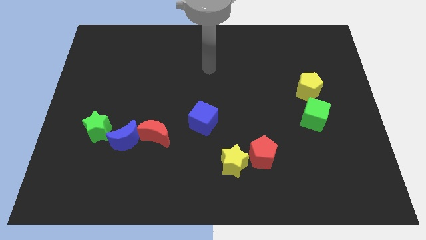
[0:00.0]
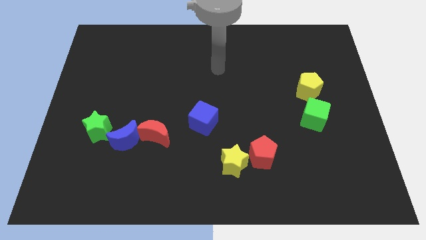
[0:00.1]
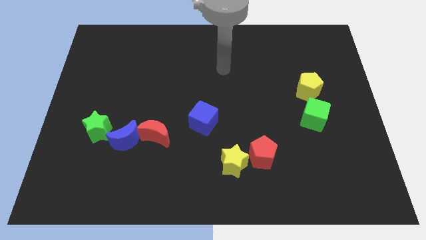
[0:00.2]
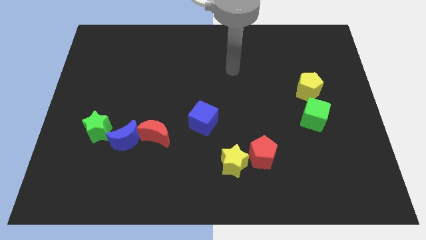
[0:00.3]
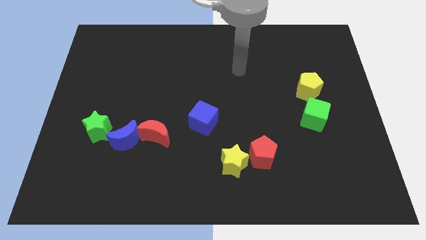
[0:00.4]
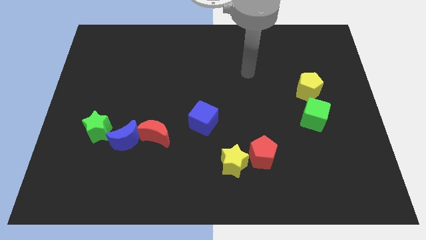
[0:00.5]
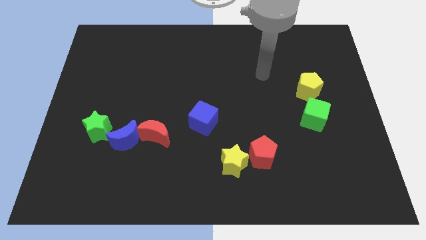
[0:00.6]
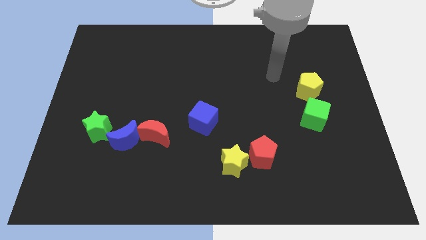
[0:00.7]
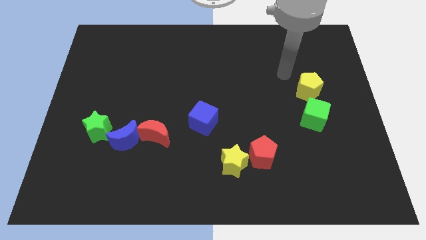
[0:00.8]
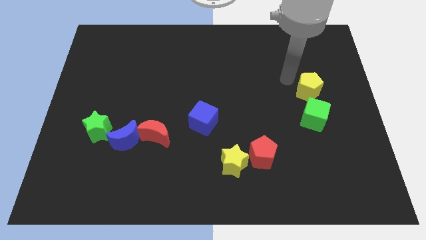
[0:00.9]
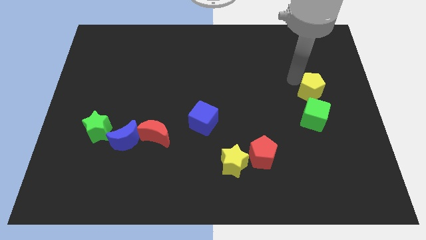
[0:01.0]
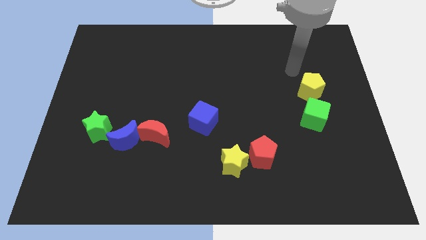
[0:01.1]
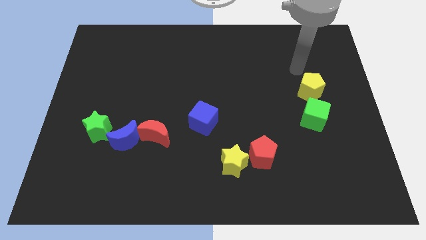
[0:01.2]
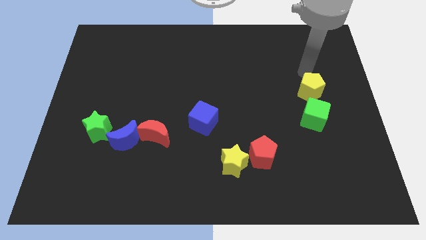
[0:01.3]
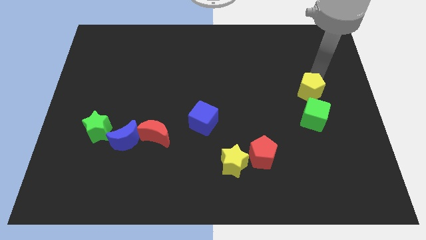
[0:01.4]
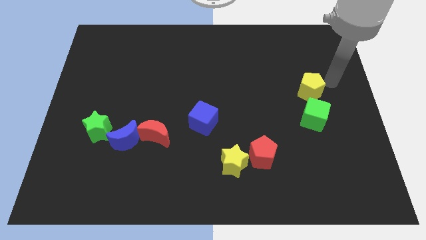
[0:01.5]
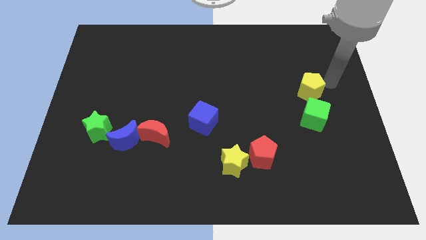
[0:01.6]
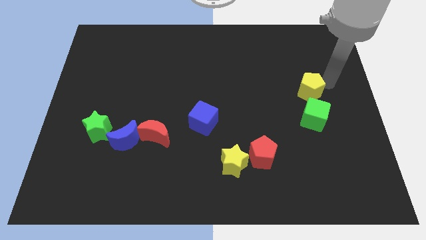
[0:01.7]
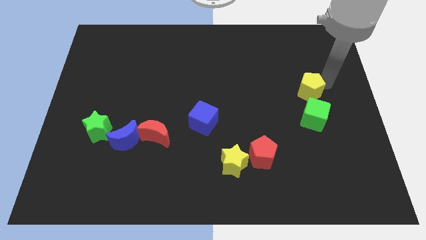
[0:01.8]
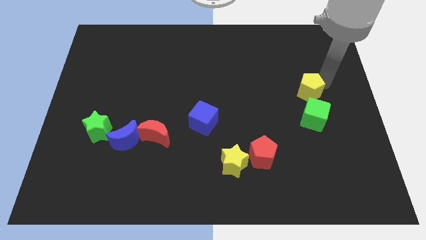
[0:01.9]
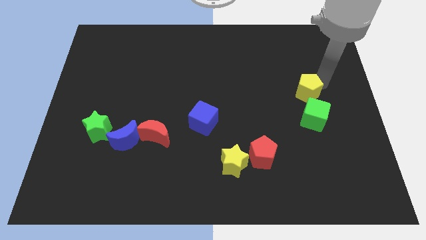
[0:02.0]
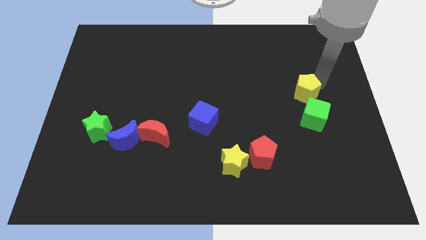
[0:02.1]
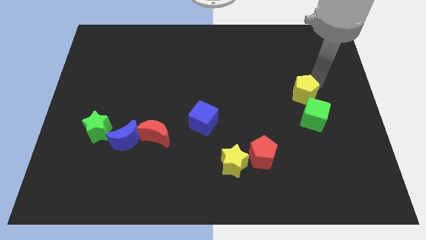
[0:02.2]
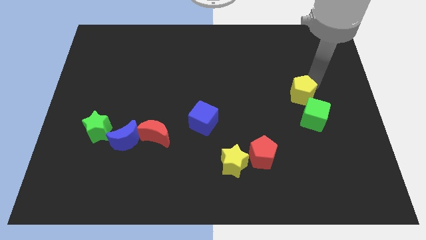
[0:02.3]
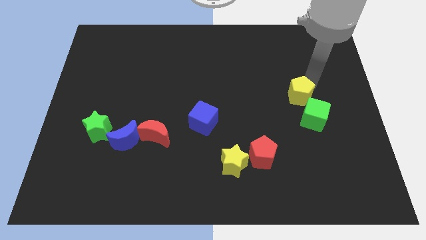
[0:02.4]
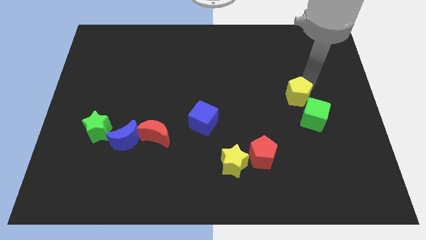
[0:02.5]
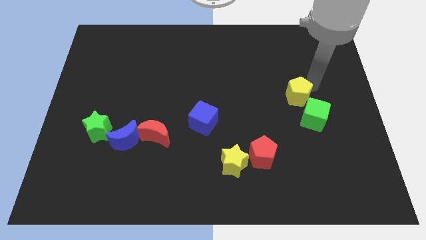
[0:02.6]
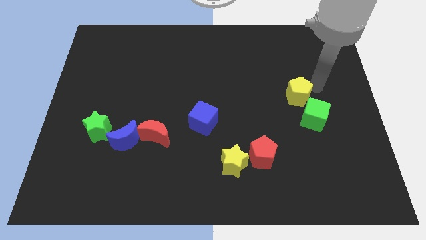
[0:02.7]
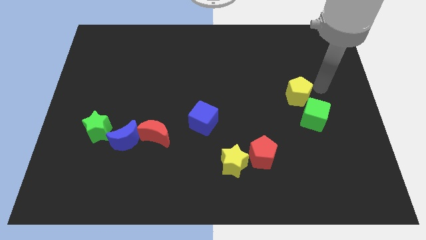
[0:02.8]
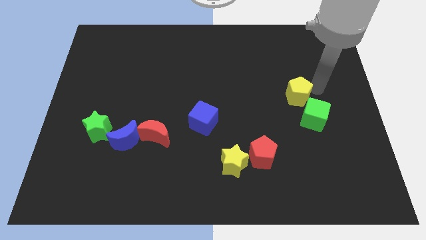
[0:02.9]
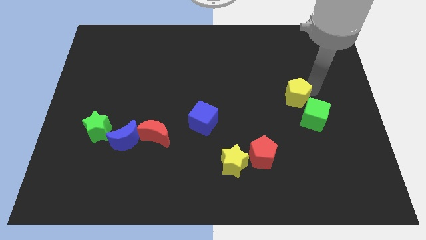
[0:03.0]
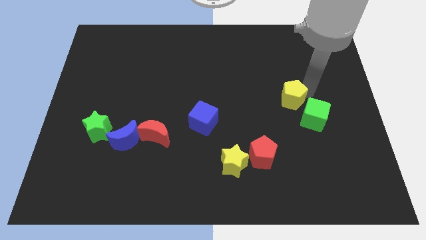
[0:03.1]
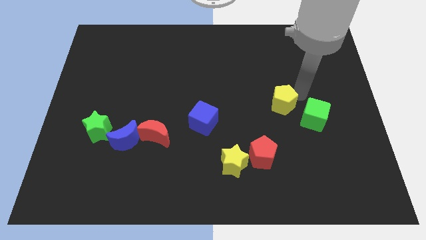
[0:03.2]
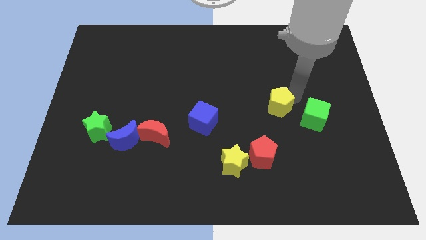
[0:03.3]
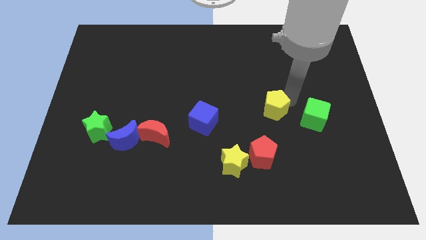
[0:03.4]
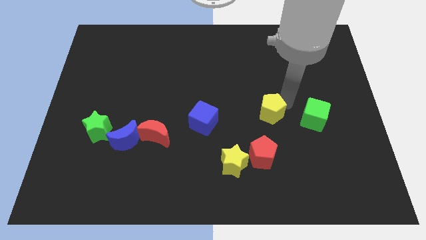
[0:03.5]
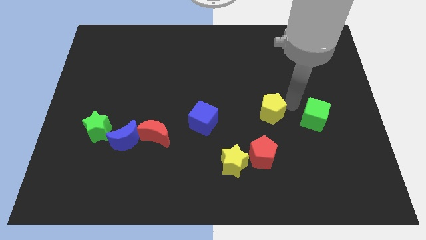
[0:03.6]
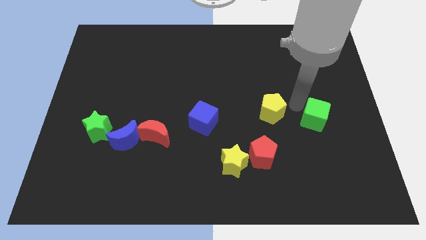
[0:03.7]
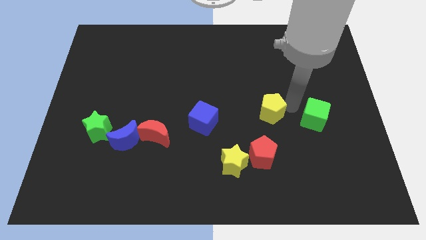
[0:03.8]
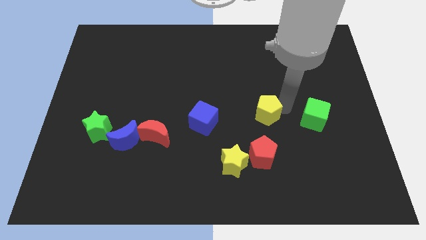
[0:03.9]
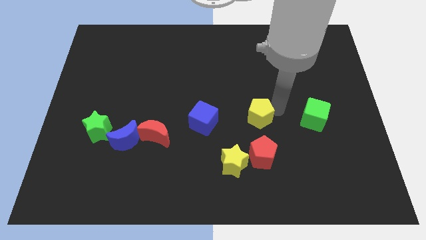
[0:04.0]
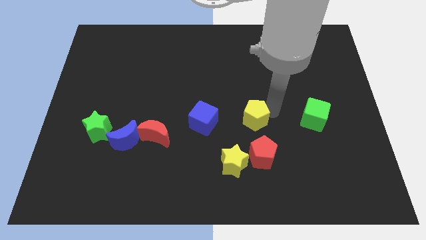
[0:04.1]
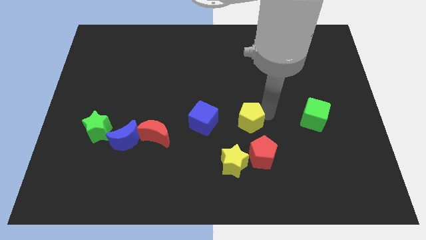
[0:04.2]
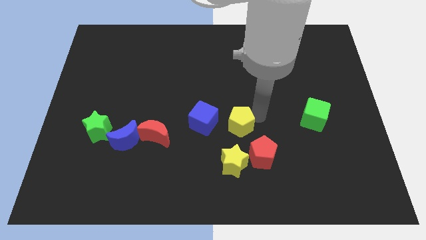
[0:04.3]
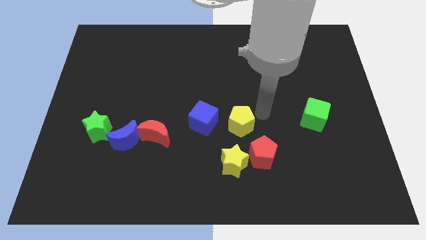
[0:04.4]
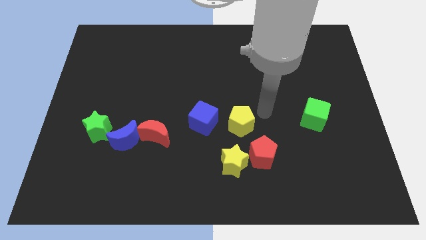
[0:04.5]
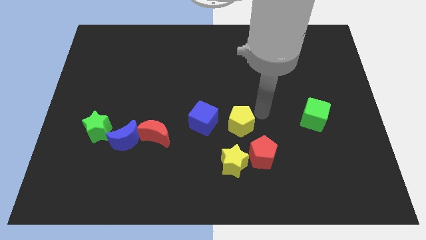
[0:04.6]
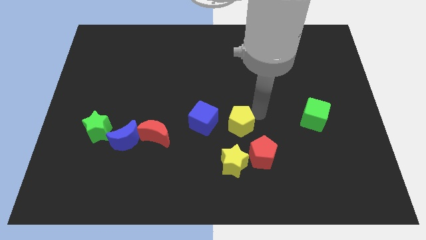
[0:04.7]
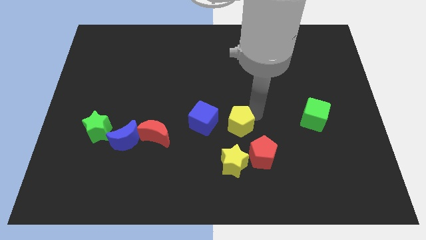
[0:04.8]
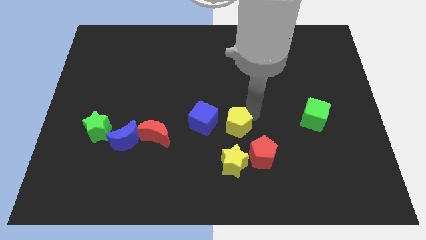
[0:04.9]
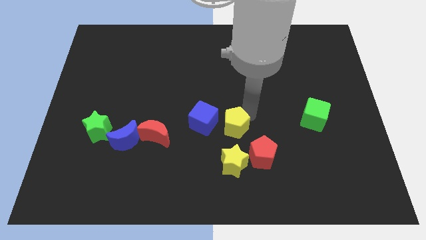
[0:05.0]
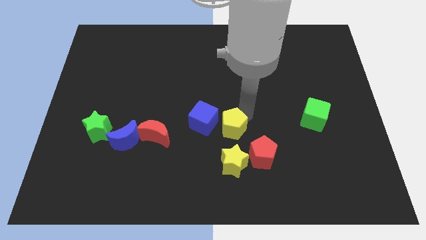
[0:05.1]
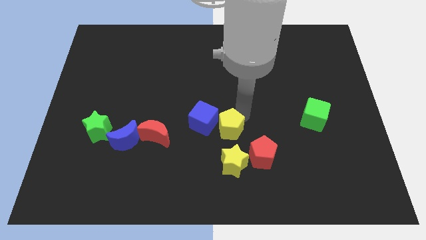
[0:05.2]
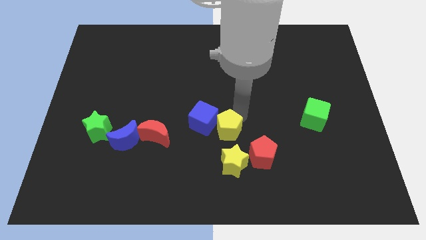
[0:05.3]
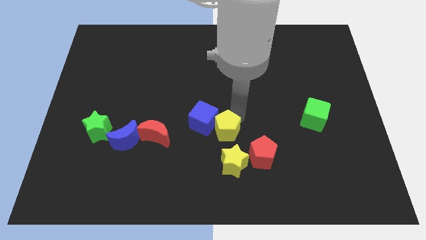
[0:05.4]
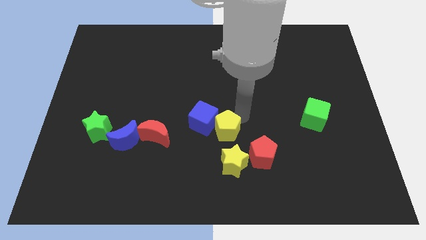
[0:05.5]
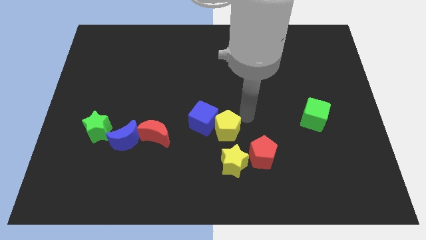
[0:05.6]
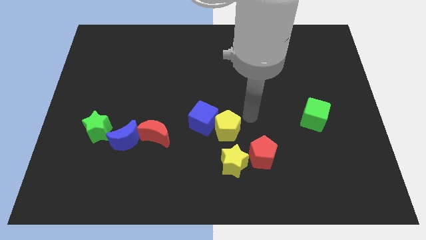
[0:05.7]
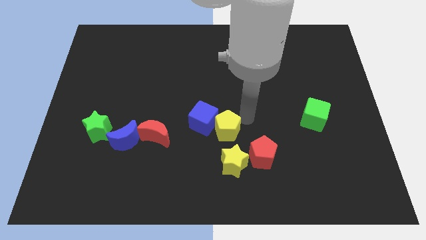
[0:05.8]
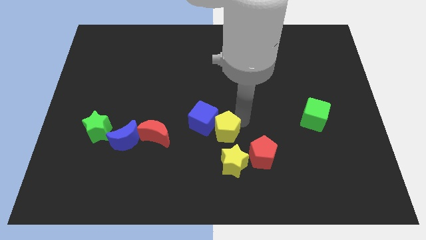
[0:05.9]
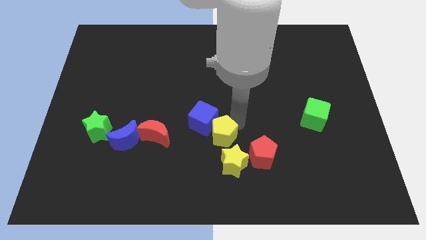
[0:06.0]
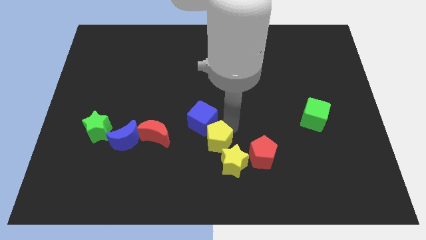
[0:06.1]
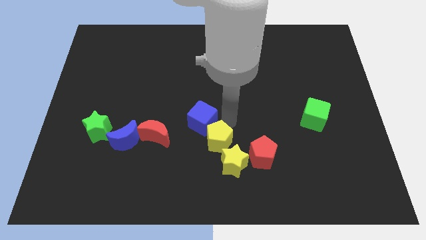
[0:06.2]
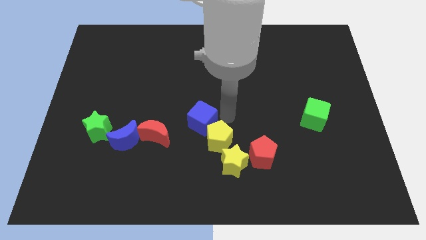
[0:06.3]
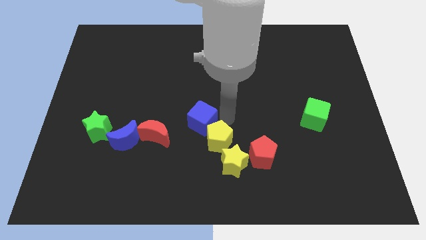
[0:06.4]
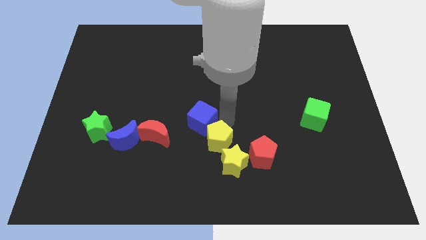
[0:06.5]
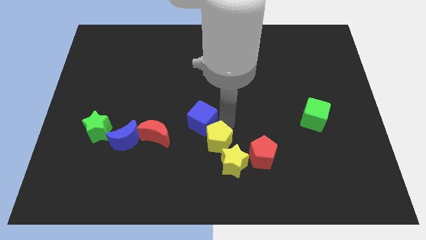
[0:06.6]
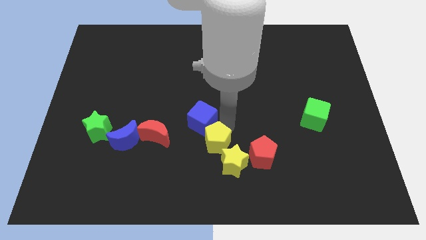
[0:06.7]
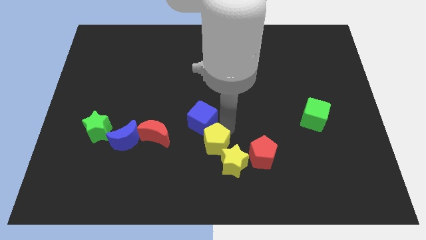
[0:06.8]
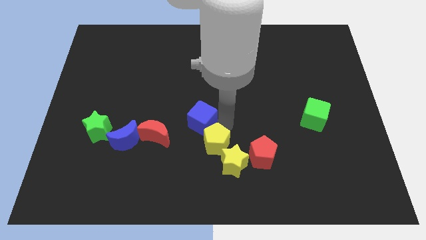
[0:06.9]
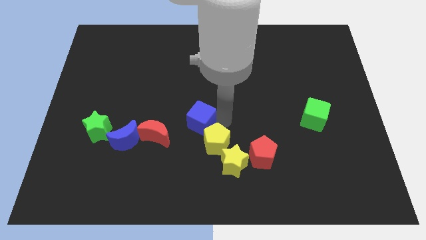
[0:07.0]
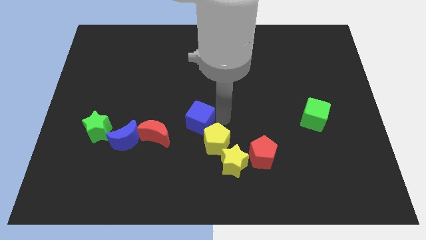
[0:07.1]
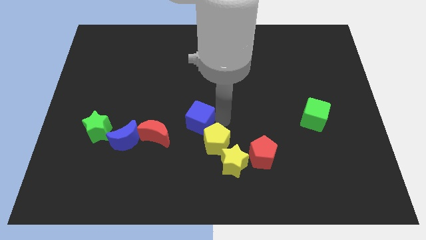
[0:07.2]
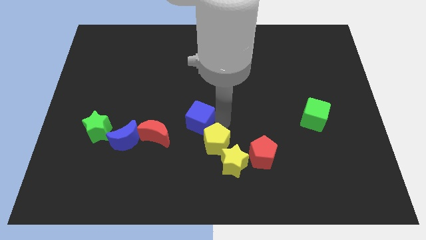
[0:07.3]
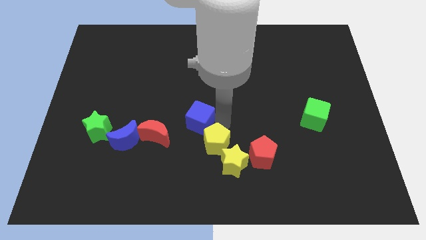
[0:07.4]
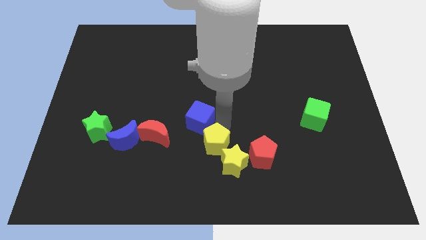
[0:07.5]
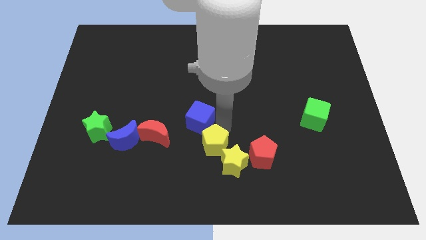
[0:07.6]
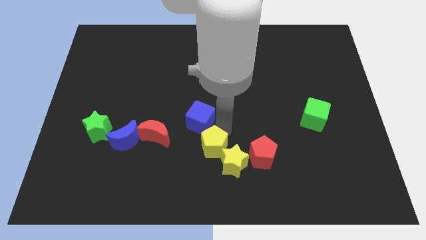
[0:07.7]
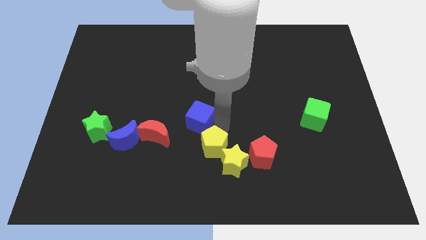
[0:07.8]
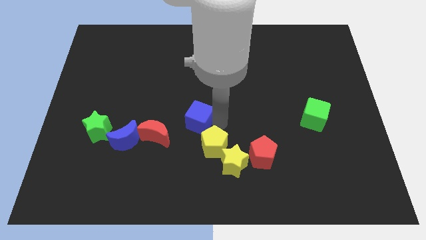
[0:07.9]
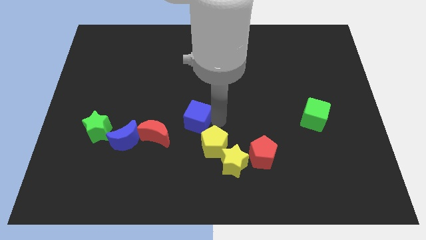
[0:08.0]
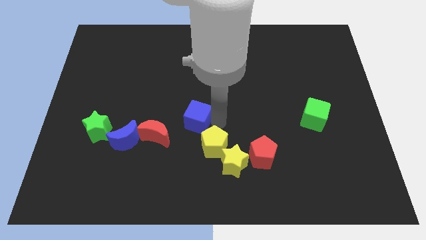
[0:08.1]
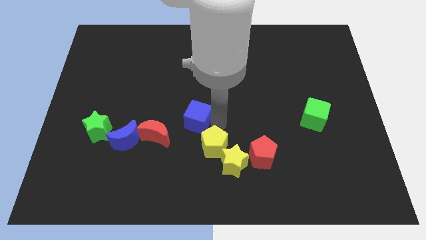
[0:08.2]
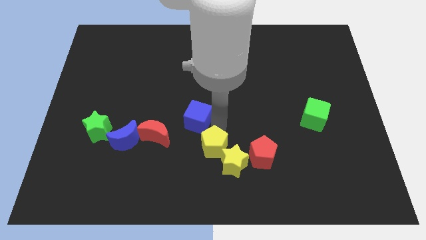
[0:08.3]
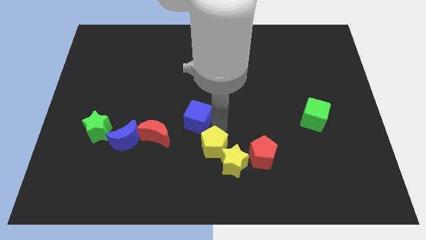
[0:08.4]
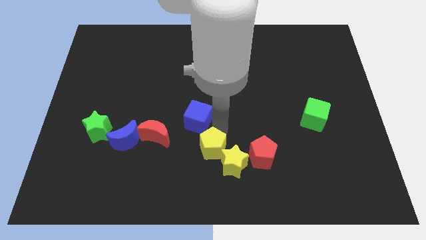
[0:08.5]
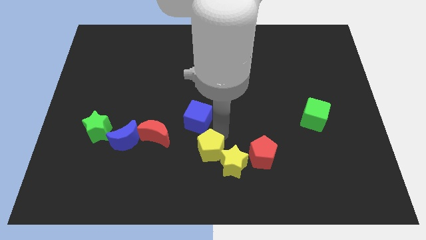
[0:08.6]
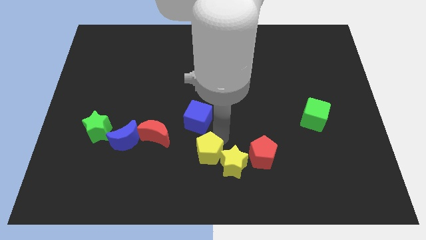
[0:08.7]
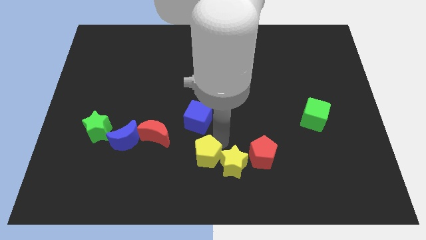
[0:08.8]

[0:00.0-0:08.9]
move the yellow pentagon to the bottom
